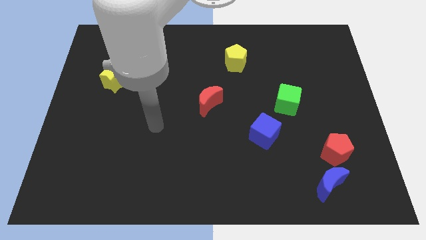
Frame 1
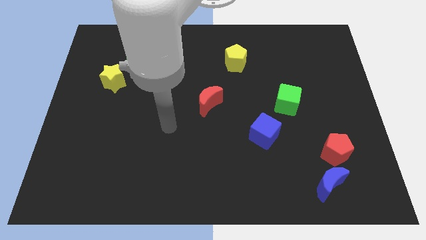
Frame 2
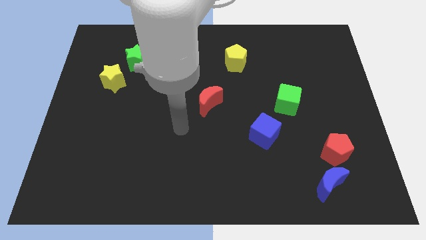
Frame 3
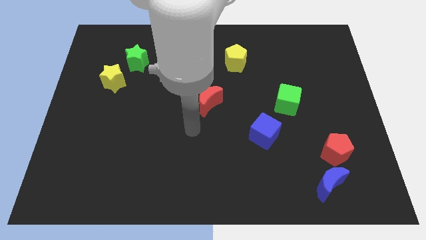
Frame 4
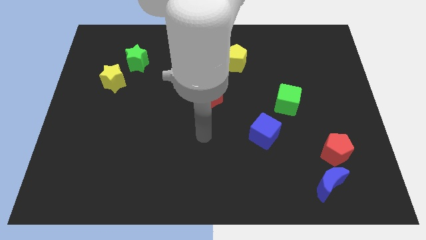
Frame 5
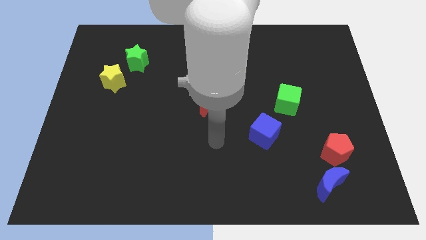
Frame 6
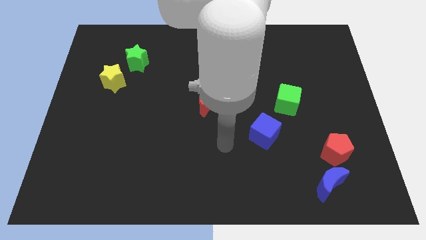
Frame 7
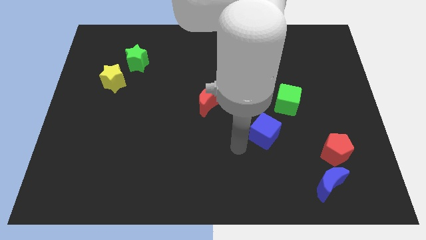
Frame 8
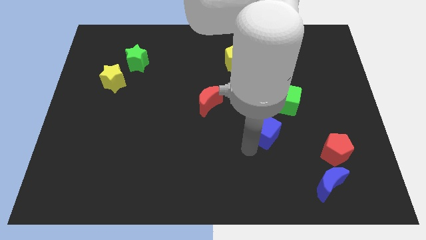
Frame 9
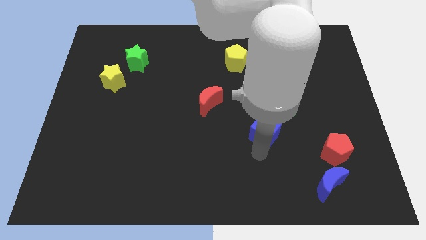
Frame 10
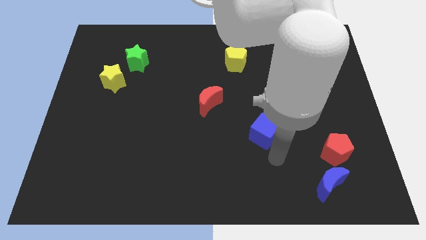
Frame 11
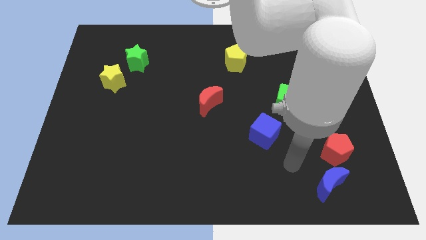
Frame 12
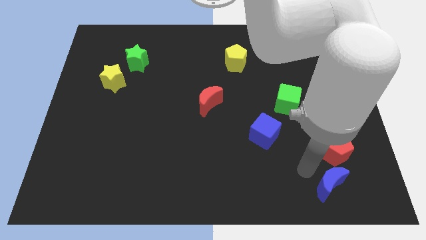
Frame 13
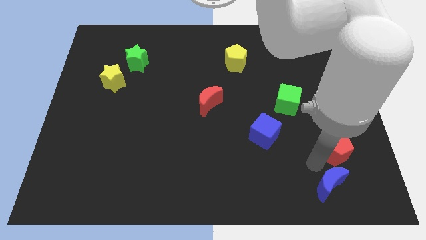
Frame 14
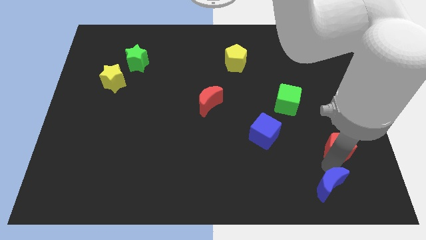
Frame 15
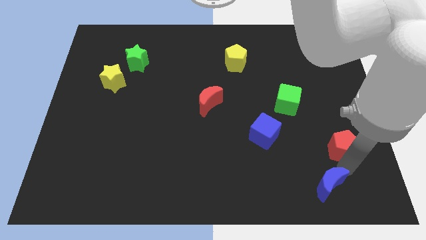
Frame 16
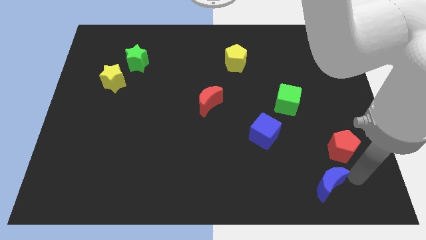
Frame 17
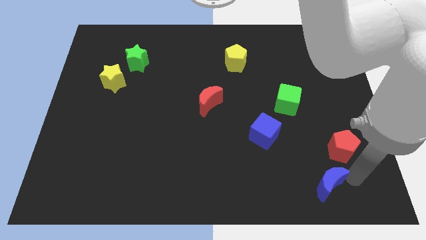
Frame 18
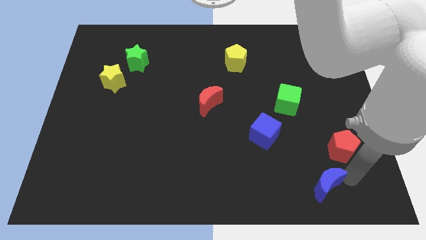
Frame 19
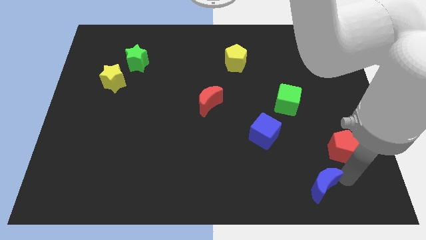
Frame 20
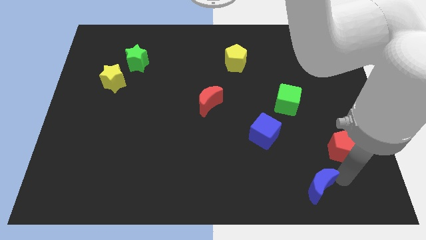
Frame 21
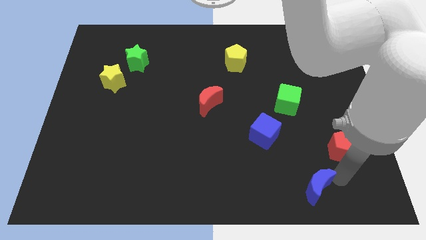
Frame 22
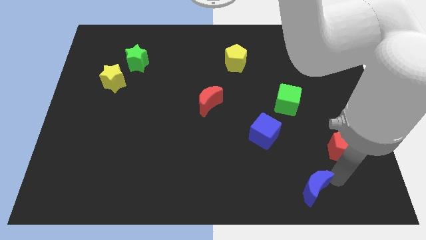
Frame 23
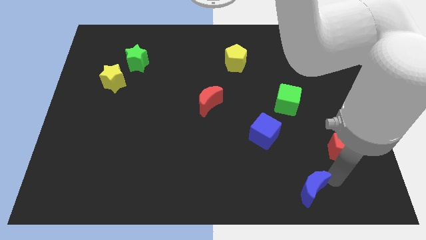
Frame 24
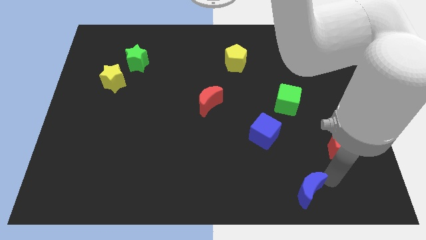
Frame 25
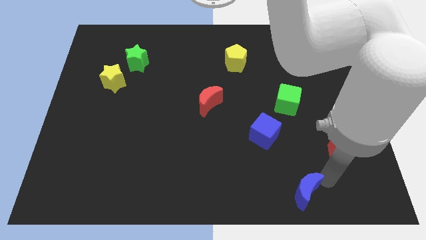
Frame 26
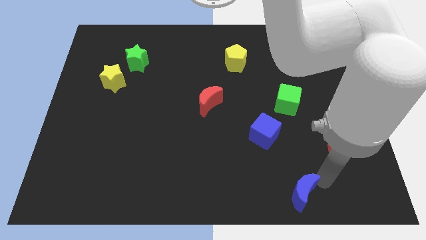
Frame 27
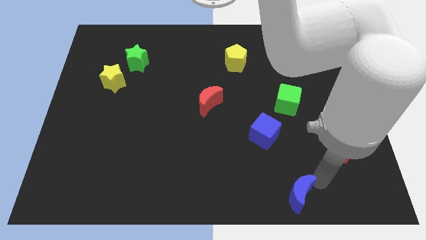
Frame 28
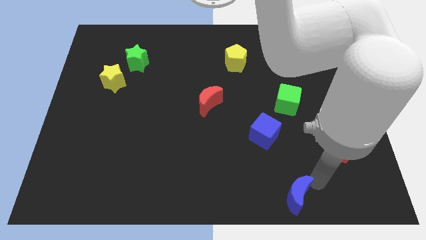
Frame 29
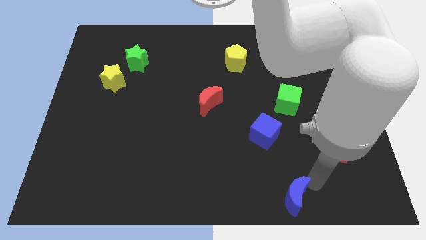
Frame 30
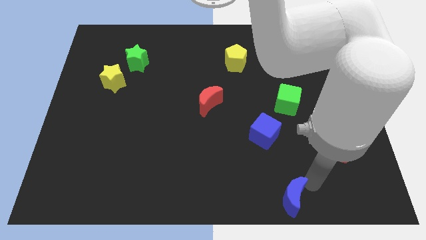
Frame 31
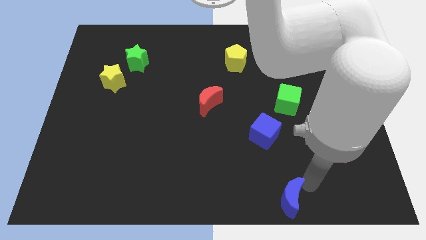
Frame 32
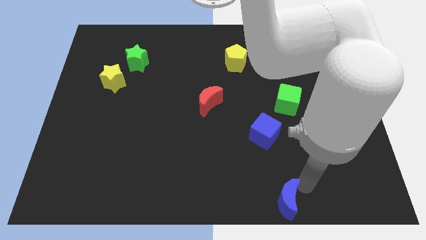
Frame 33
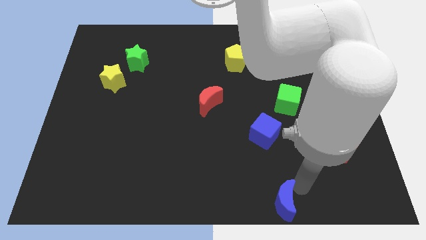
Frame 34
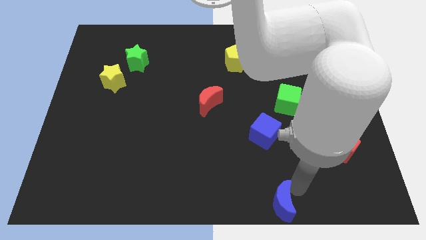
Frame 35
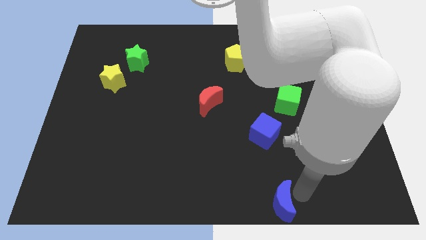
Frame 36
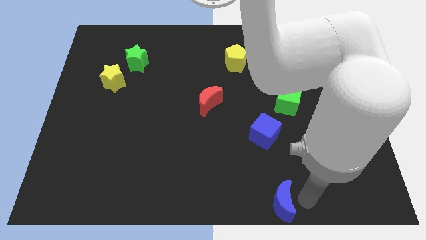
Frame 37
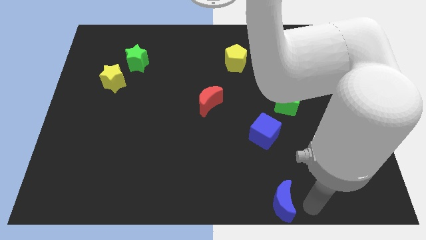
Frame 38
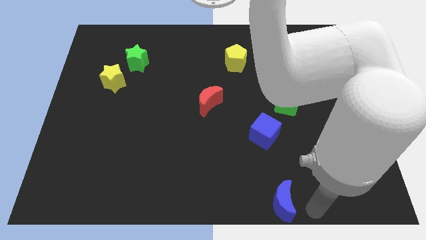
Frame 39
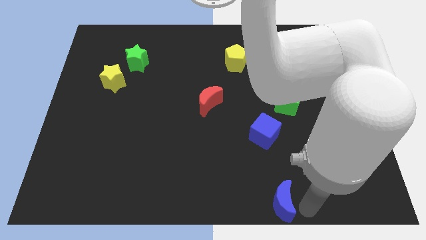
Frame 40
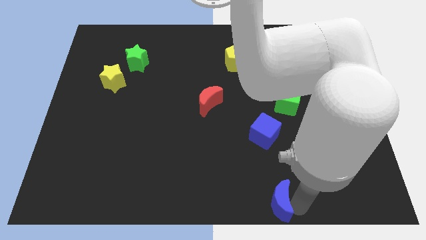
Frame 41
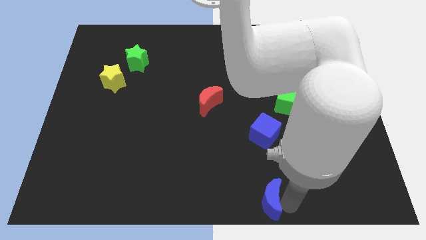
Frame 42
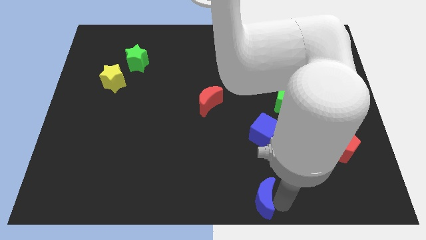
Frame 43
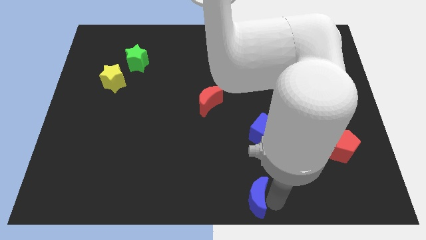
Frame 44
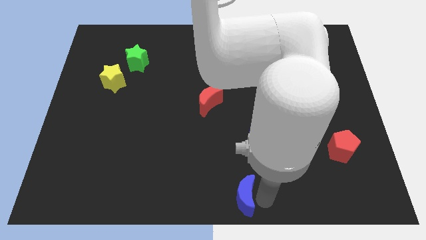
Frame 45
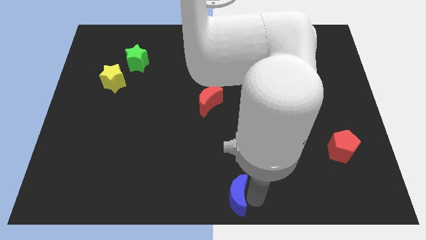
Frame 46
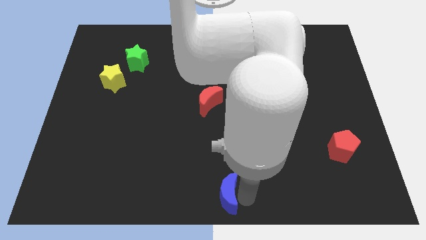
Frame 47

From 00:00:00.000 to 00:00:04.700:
push the blue moon to the left

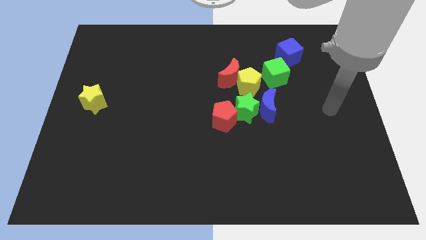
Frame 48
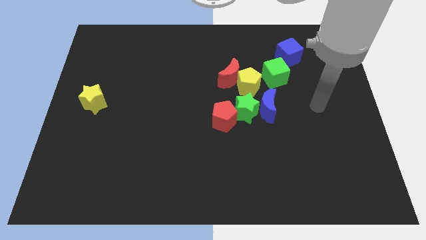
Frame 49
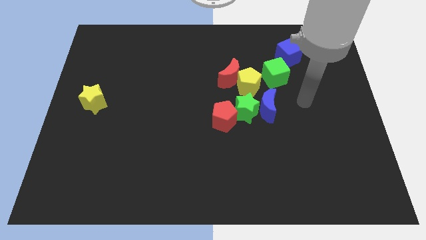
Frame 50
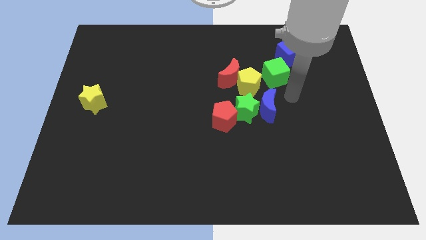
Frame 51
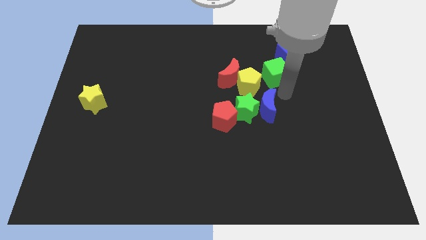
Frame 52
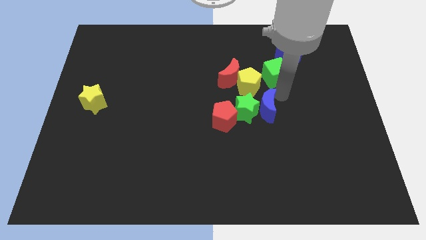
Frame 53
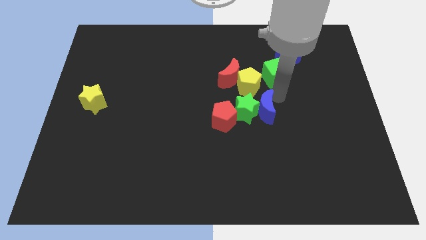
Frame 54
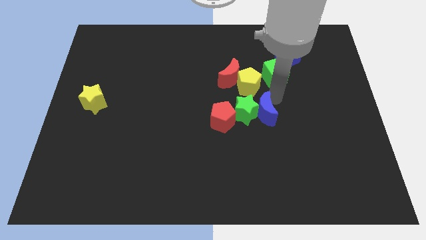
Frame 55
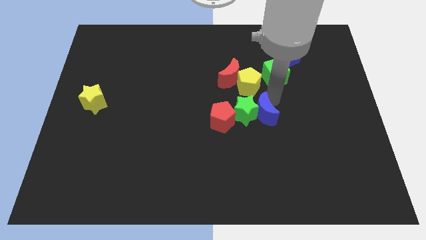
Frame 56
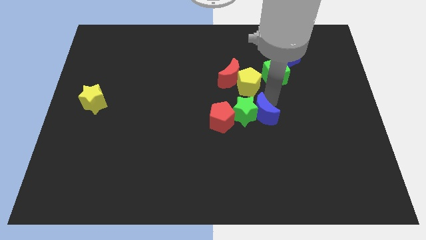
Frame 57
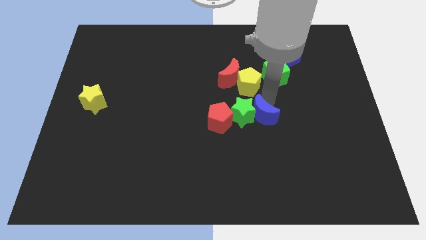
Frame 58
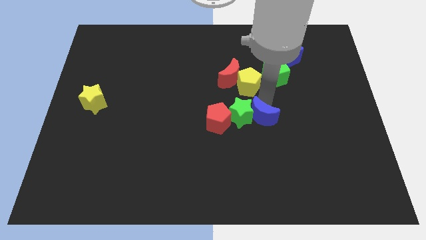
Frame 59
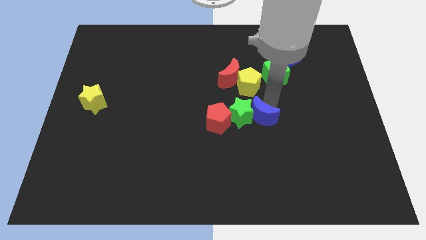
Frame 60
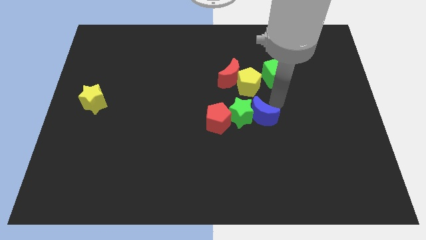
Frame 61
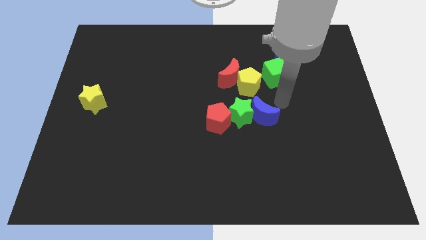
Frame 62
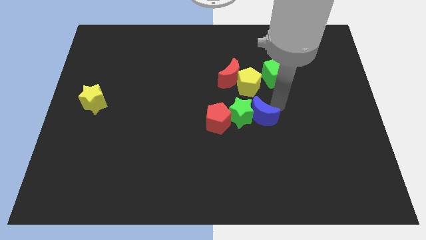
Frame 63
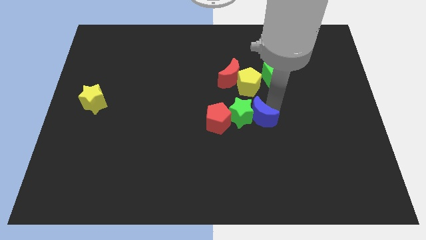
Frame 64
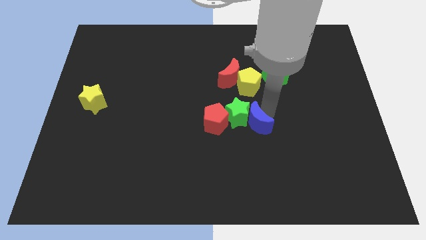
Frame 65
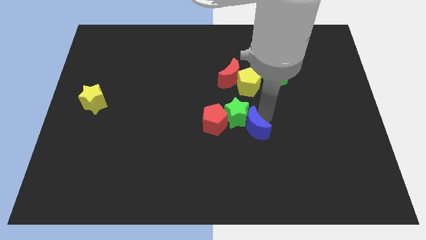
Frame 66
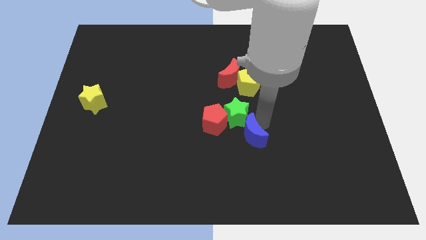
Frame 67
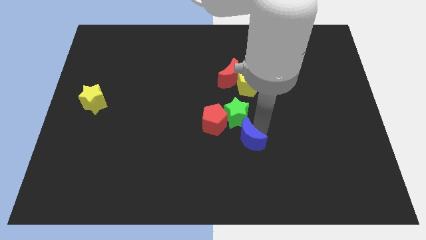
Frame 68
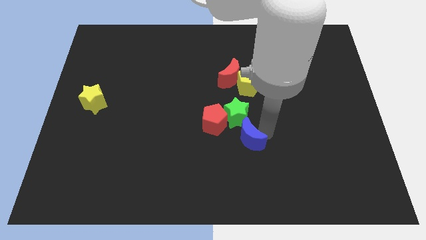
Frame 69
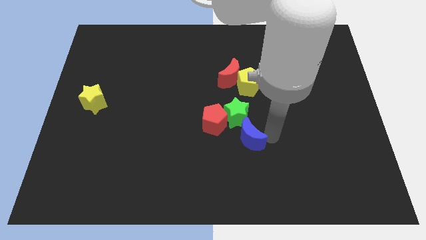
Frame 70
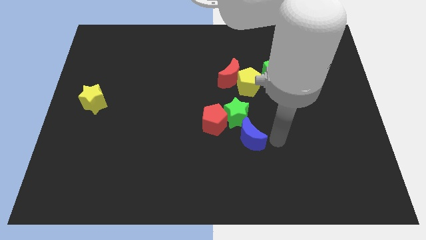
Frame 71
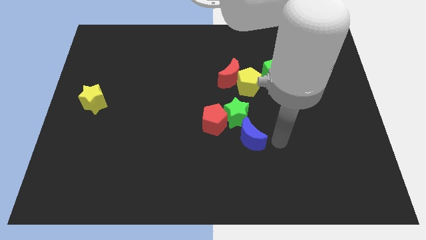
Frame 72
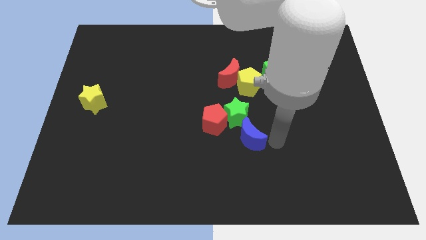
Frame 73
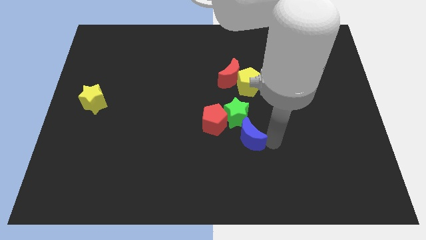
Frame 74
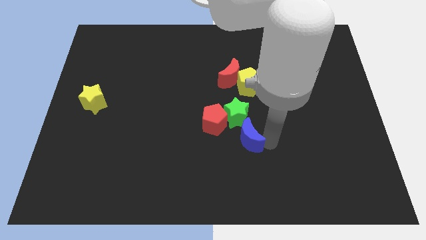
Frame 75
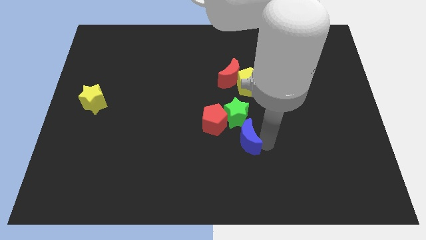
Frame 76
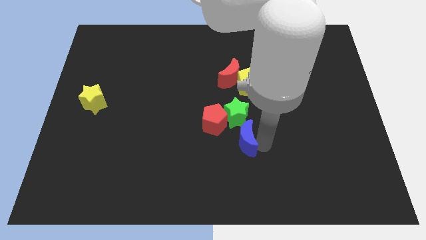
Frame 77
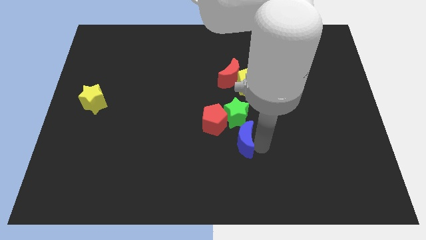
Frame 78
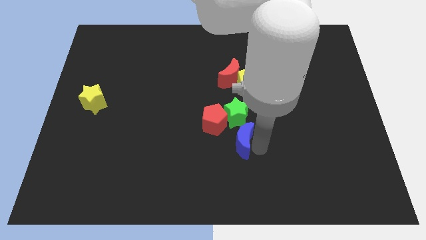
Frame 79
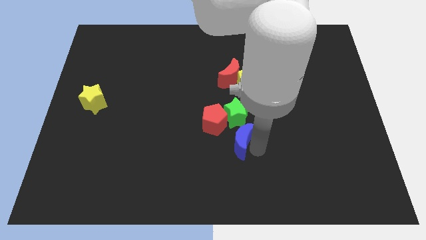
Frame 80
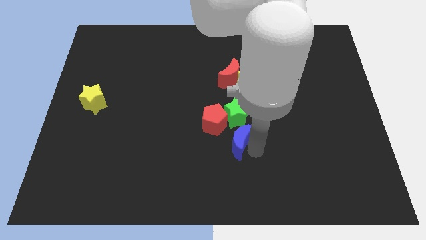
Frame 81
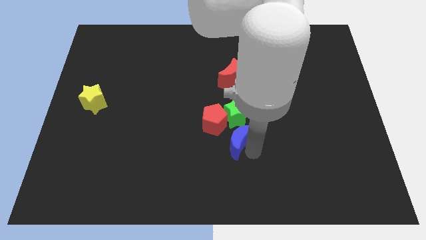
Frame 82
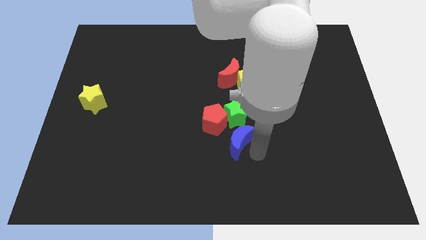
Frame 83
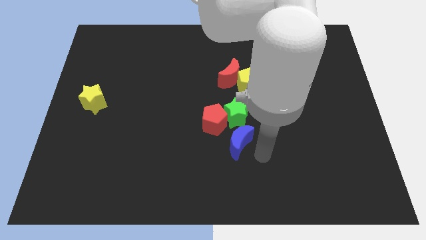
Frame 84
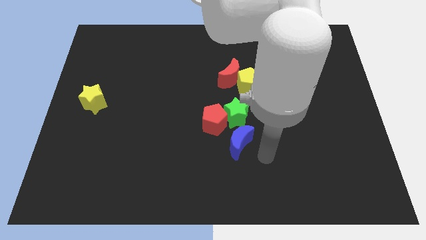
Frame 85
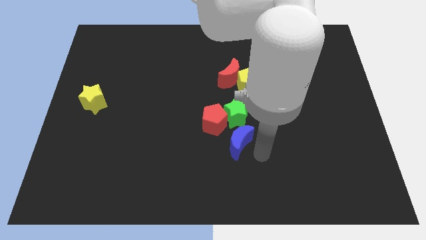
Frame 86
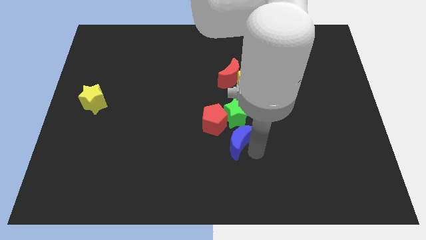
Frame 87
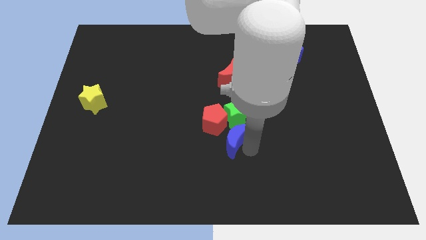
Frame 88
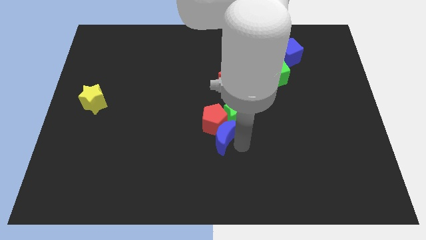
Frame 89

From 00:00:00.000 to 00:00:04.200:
push the blue moon left a little bit
